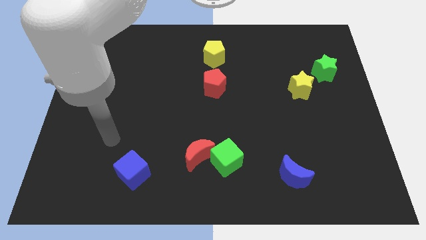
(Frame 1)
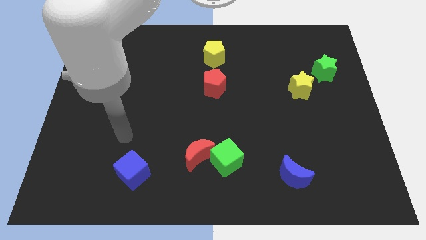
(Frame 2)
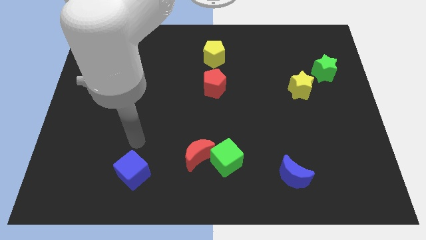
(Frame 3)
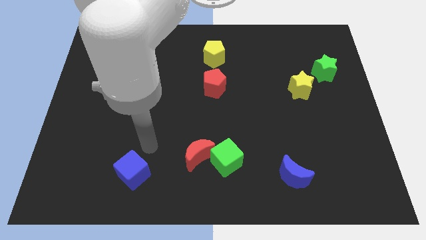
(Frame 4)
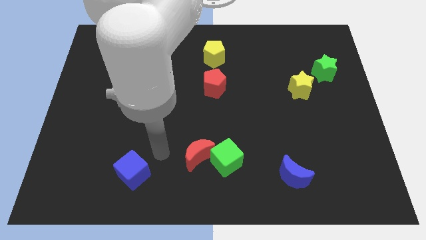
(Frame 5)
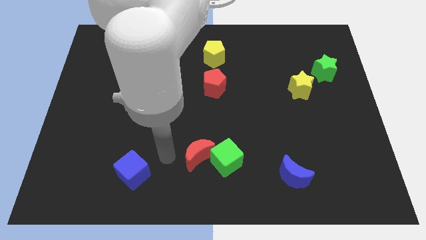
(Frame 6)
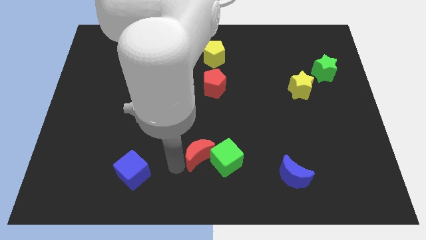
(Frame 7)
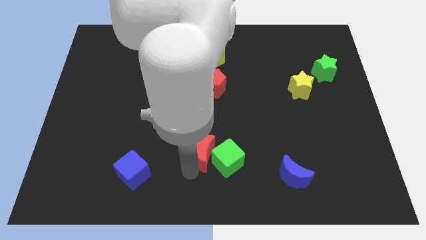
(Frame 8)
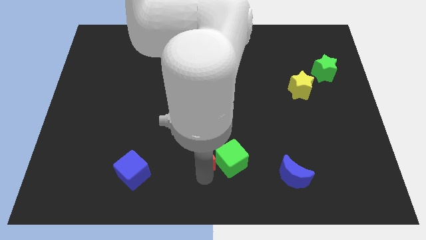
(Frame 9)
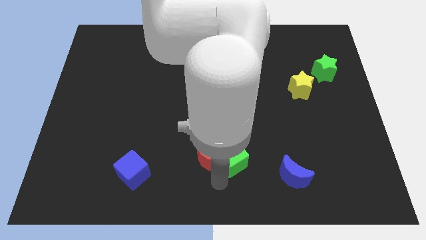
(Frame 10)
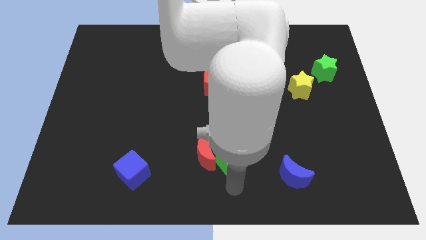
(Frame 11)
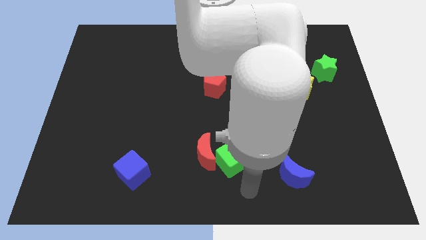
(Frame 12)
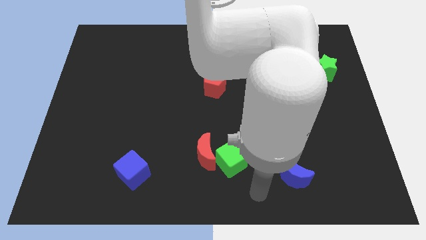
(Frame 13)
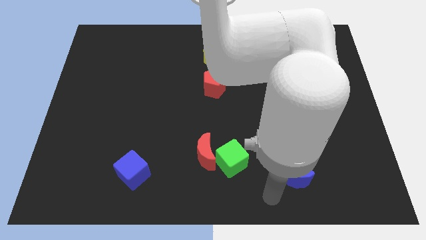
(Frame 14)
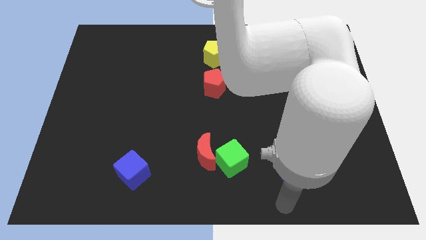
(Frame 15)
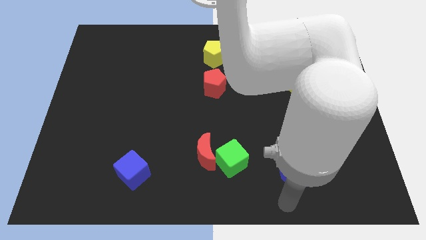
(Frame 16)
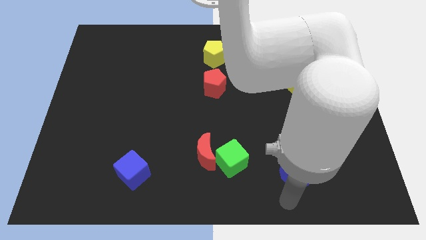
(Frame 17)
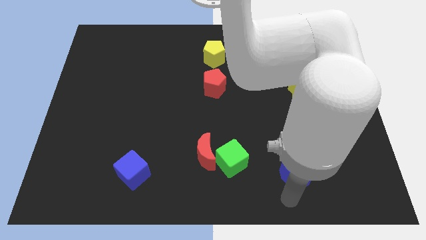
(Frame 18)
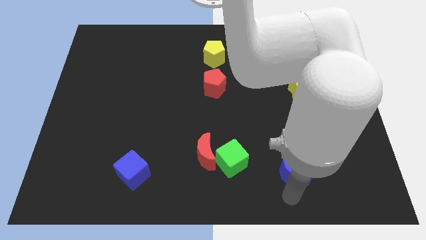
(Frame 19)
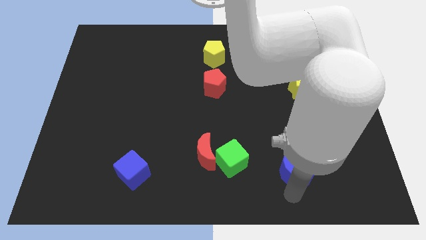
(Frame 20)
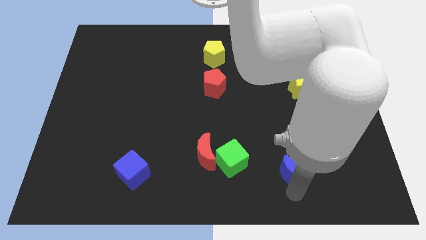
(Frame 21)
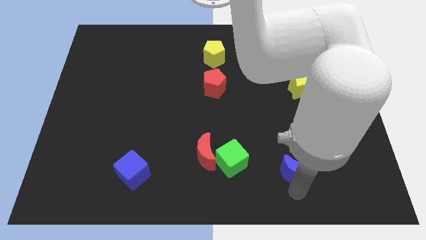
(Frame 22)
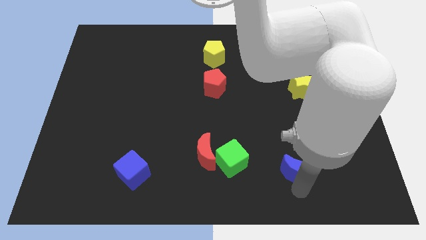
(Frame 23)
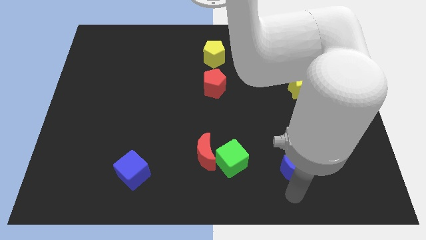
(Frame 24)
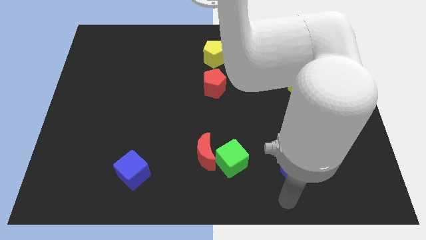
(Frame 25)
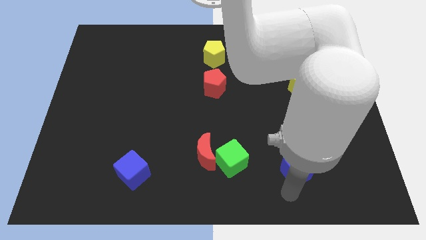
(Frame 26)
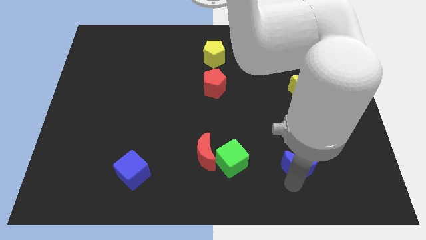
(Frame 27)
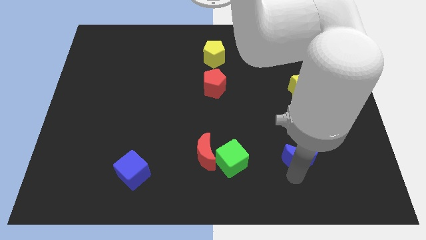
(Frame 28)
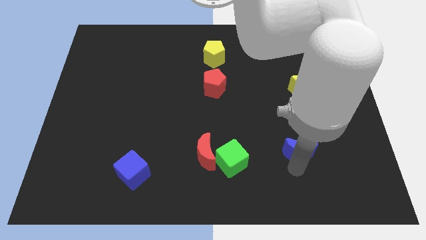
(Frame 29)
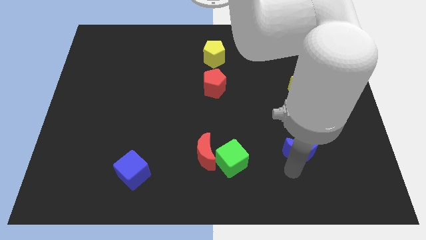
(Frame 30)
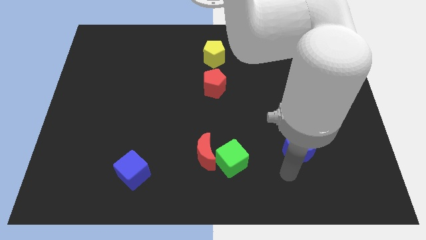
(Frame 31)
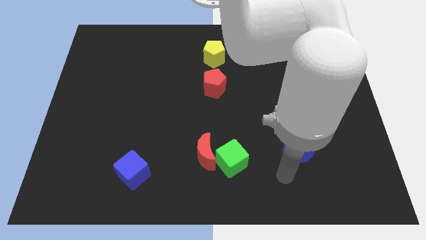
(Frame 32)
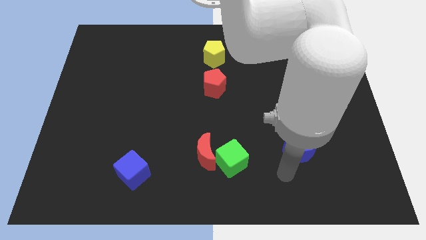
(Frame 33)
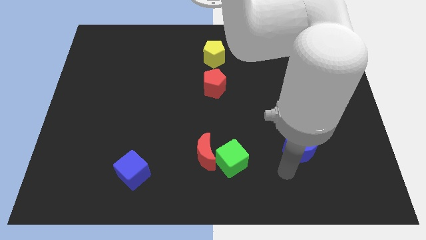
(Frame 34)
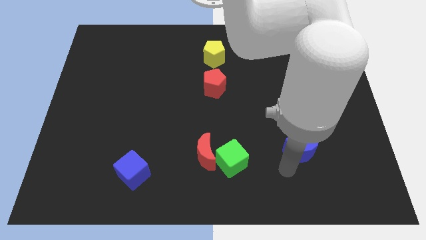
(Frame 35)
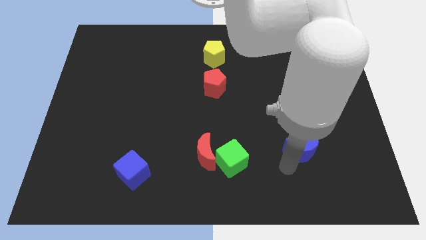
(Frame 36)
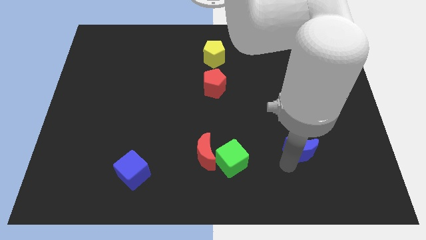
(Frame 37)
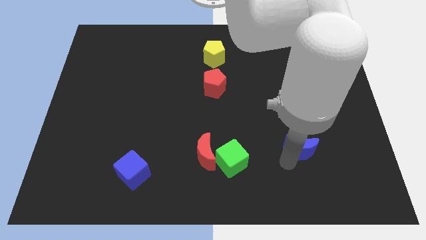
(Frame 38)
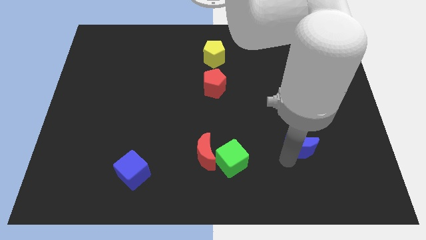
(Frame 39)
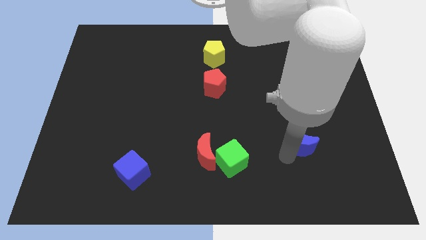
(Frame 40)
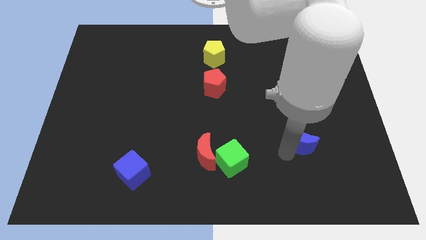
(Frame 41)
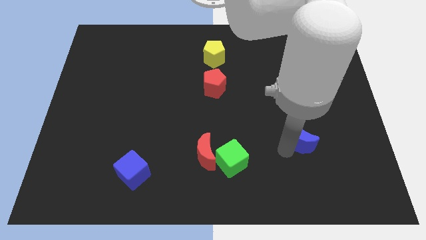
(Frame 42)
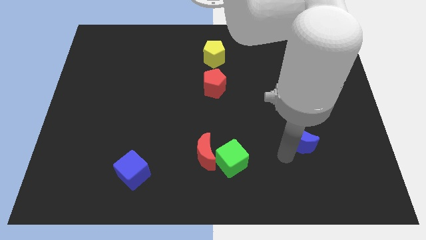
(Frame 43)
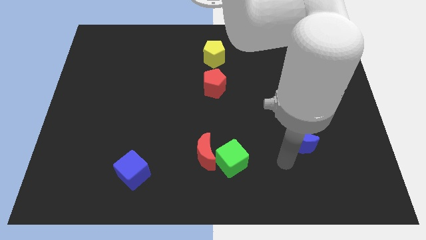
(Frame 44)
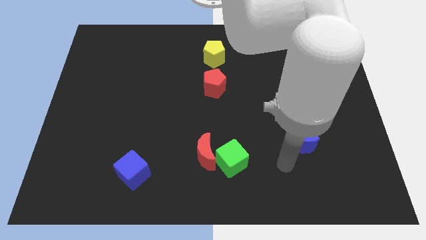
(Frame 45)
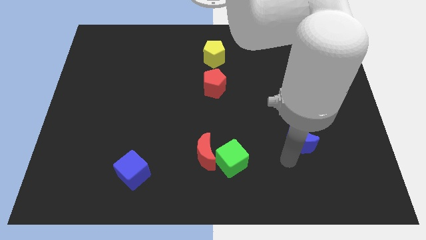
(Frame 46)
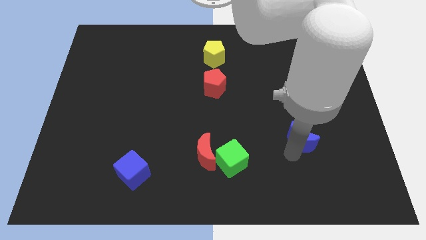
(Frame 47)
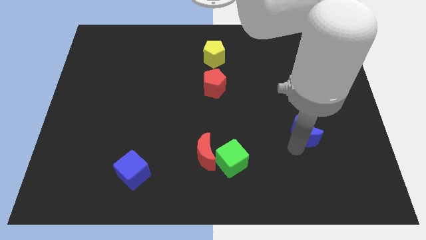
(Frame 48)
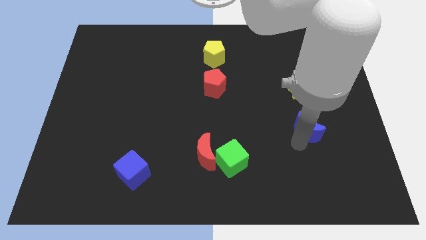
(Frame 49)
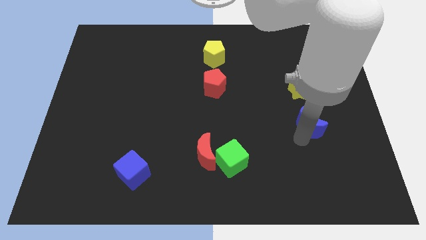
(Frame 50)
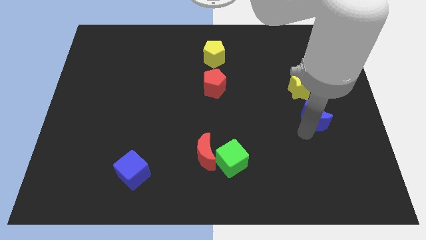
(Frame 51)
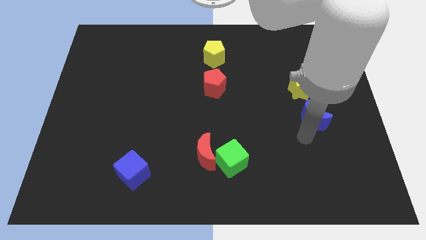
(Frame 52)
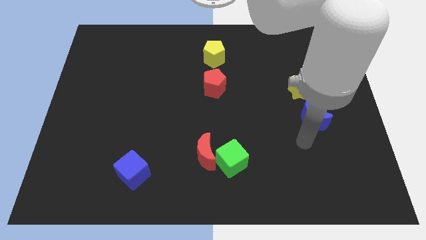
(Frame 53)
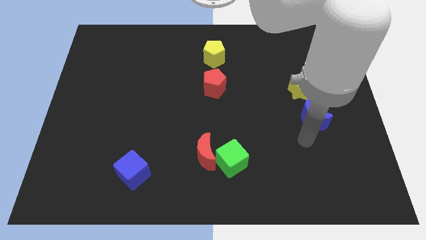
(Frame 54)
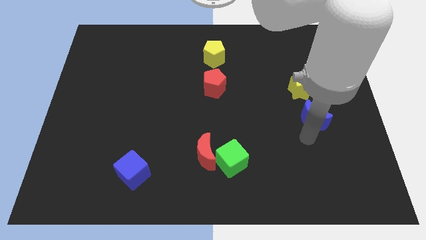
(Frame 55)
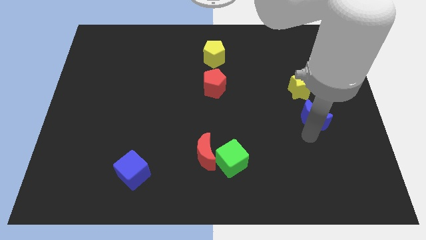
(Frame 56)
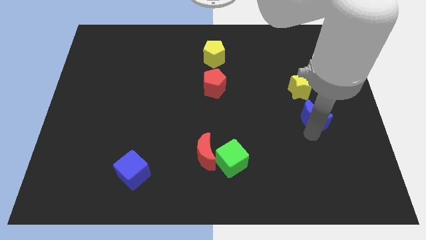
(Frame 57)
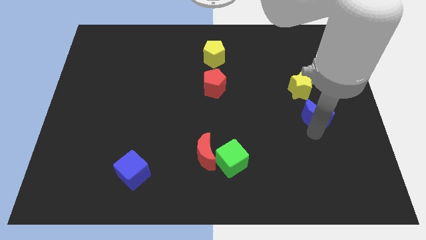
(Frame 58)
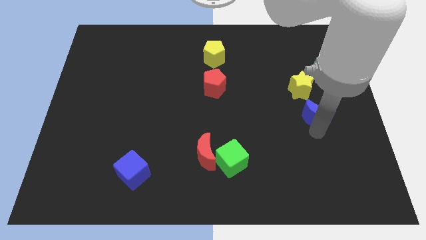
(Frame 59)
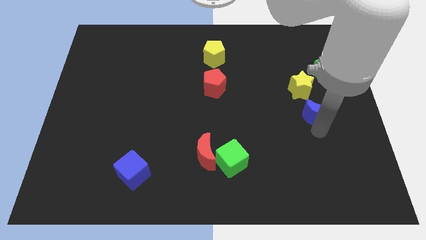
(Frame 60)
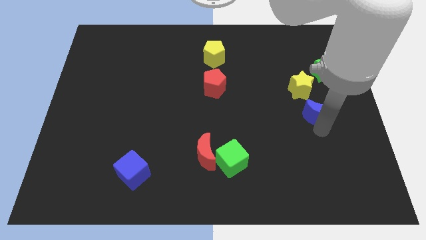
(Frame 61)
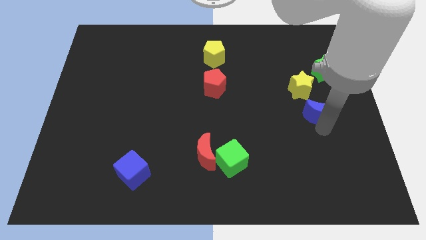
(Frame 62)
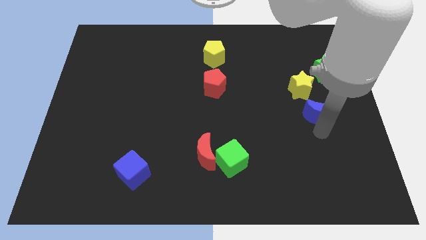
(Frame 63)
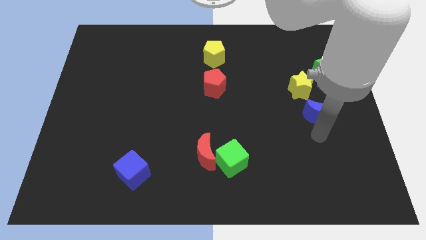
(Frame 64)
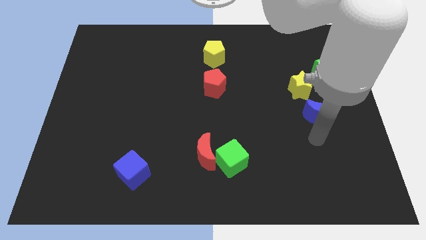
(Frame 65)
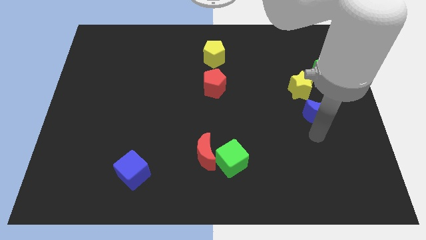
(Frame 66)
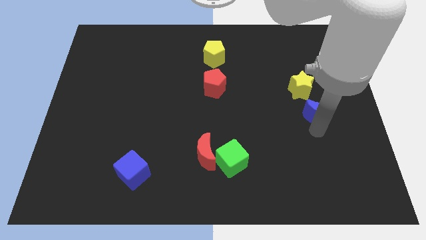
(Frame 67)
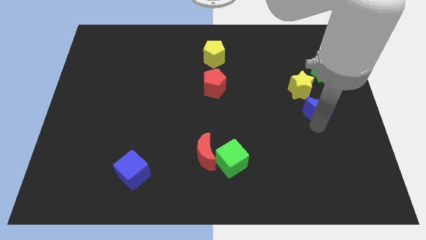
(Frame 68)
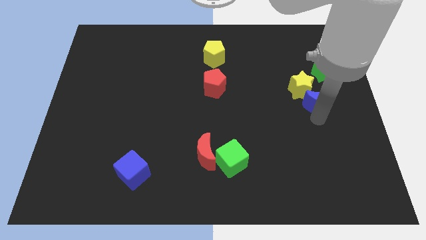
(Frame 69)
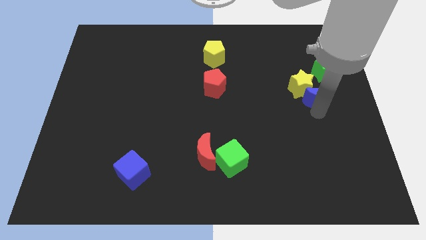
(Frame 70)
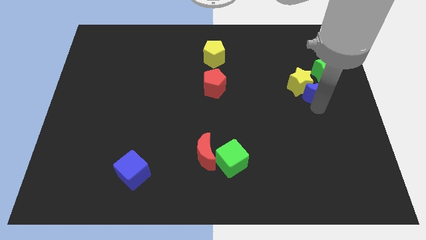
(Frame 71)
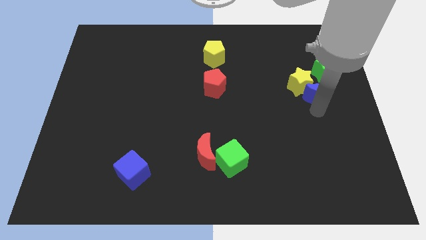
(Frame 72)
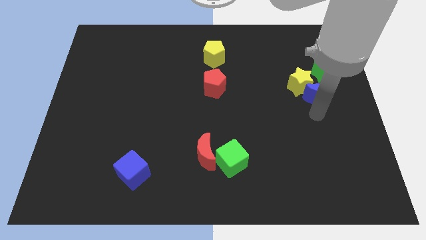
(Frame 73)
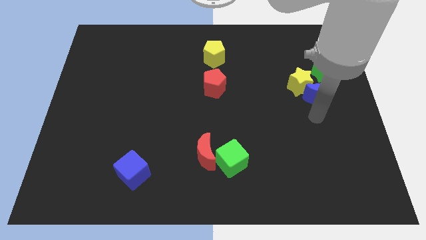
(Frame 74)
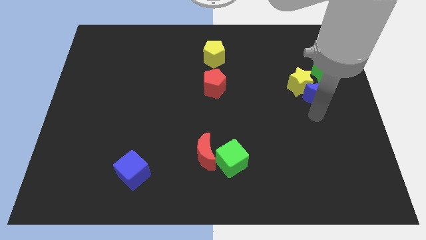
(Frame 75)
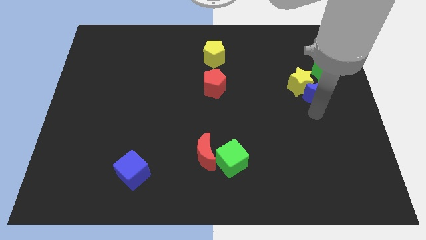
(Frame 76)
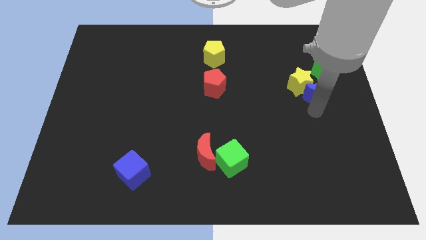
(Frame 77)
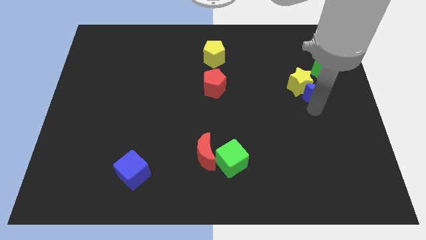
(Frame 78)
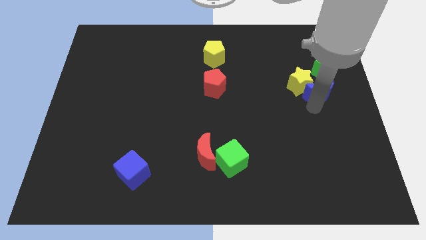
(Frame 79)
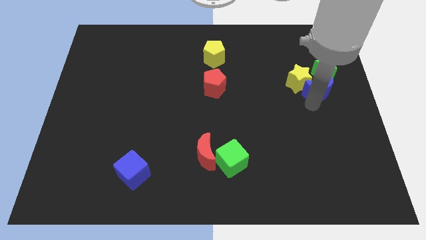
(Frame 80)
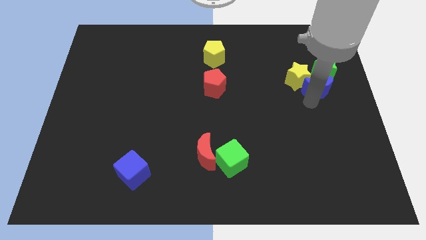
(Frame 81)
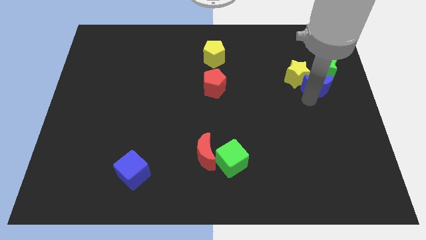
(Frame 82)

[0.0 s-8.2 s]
put the blue moon close to the green star
